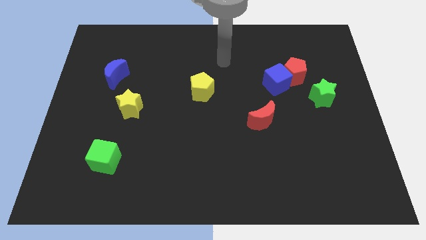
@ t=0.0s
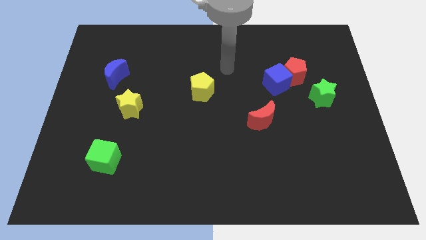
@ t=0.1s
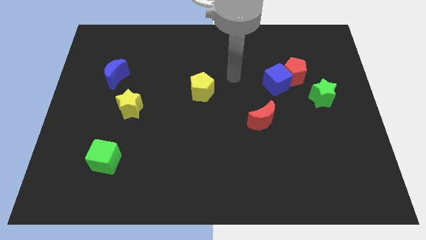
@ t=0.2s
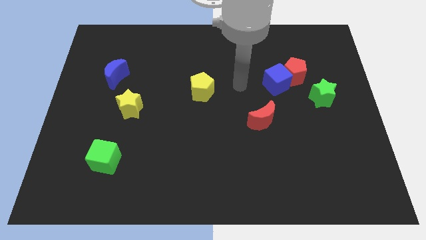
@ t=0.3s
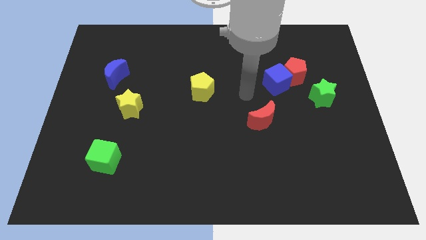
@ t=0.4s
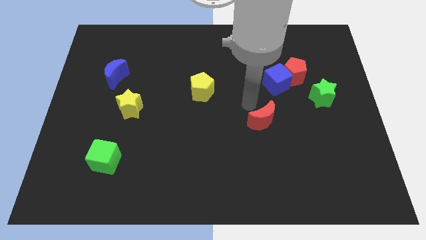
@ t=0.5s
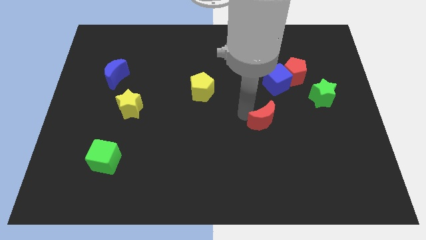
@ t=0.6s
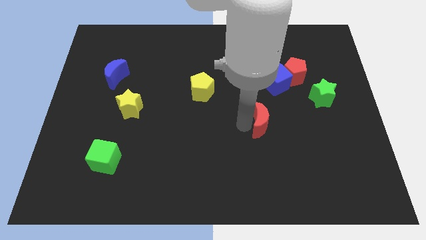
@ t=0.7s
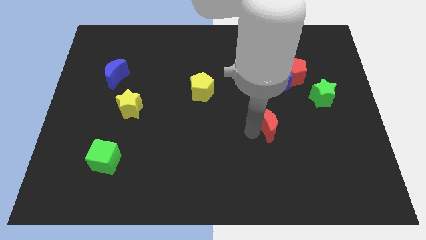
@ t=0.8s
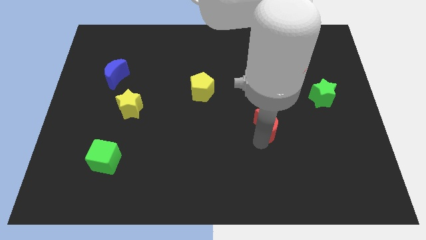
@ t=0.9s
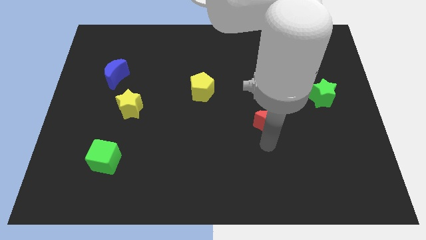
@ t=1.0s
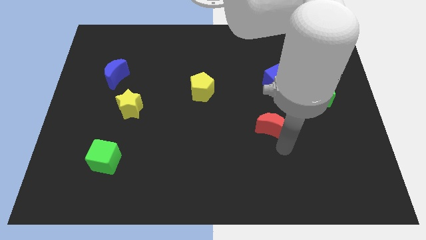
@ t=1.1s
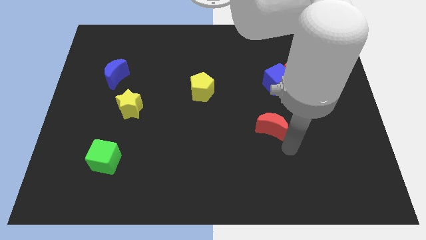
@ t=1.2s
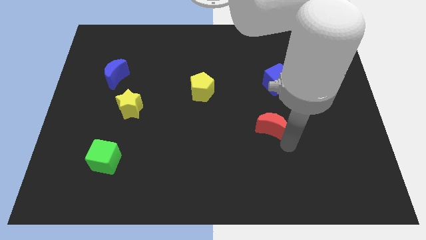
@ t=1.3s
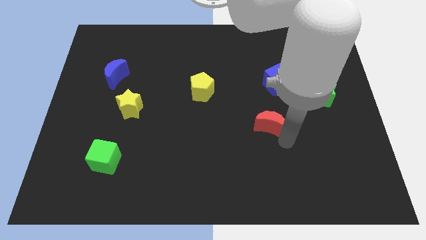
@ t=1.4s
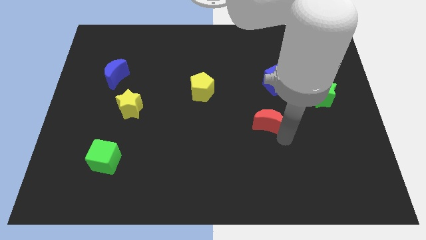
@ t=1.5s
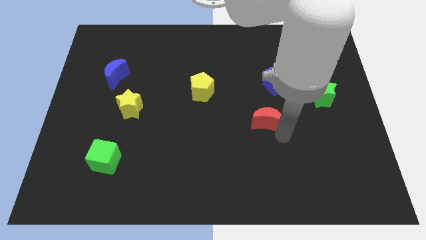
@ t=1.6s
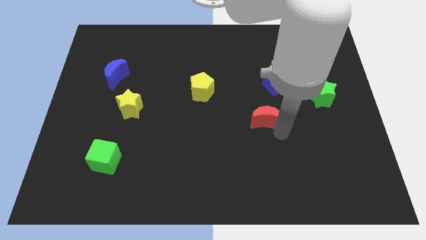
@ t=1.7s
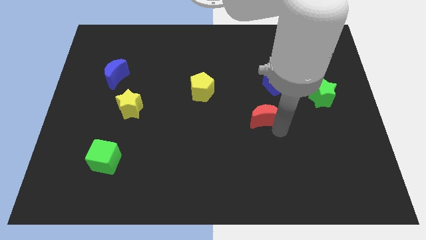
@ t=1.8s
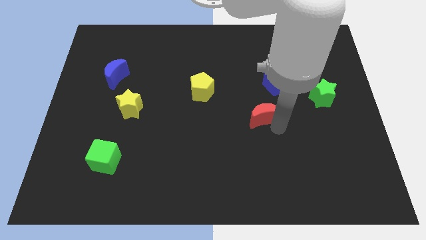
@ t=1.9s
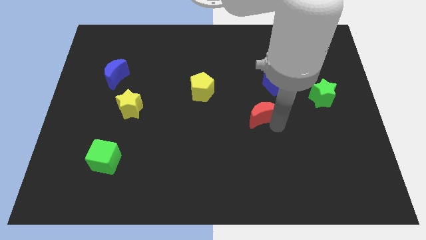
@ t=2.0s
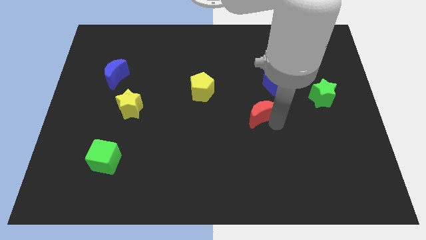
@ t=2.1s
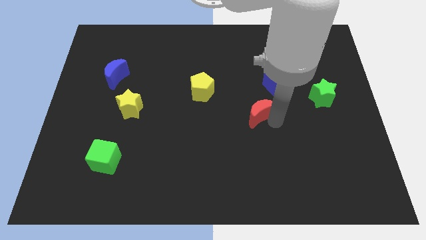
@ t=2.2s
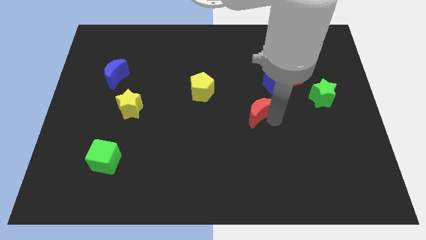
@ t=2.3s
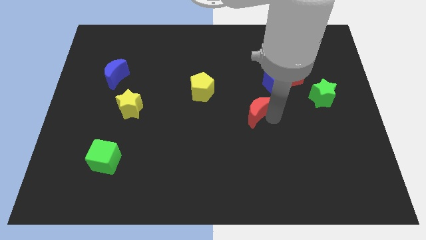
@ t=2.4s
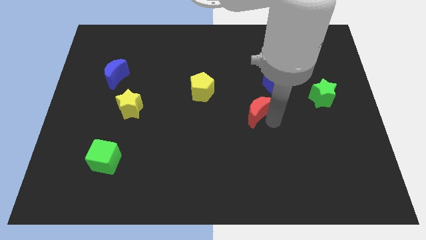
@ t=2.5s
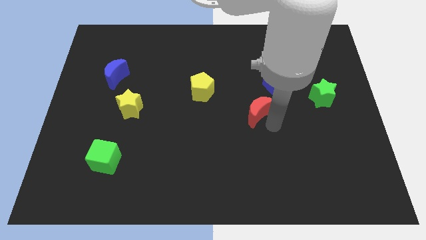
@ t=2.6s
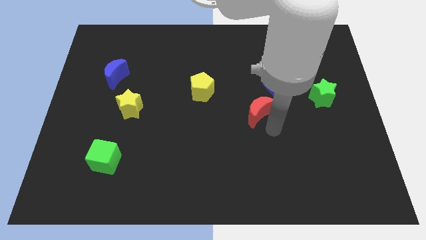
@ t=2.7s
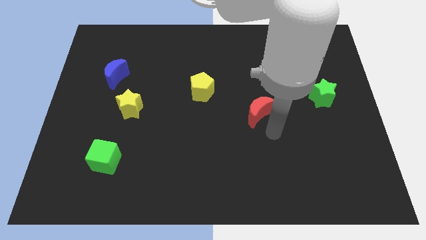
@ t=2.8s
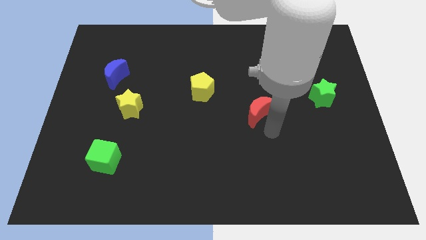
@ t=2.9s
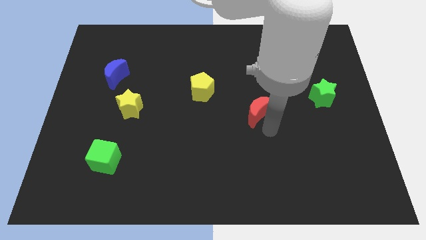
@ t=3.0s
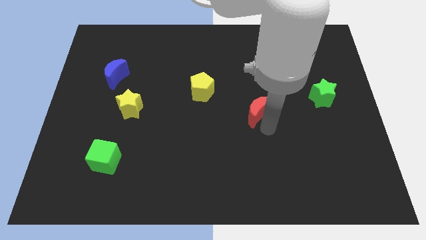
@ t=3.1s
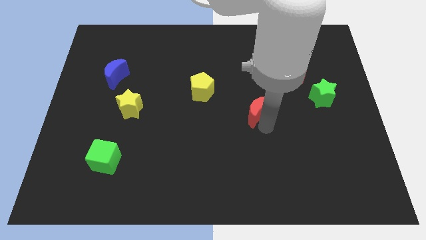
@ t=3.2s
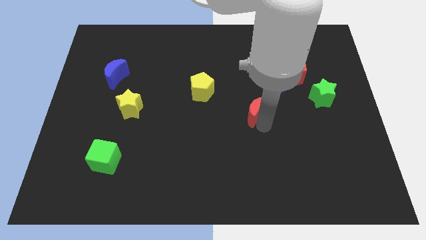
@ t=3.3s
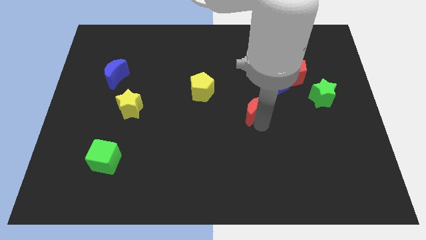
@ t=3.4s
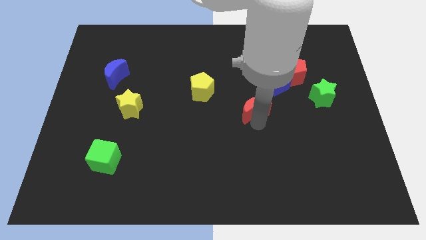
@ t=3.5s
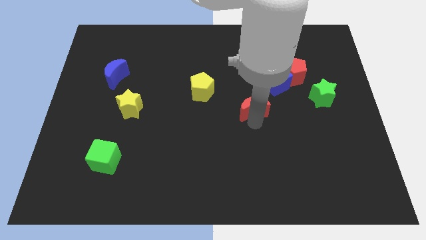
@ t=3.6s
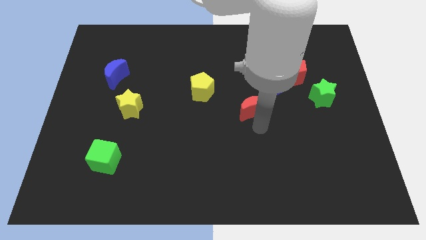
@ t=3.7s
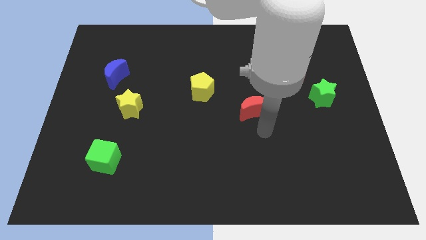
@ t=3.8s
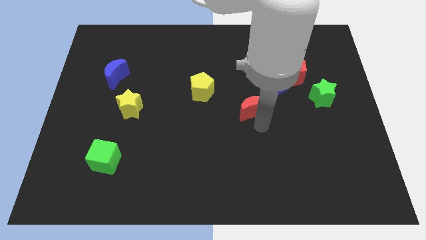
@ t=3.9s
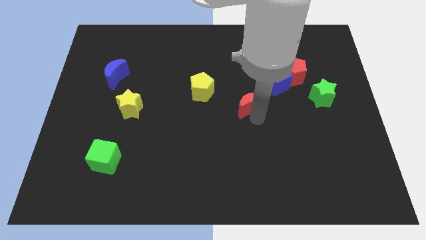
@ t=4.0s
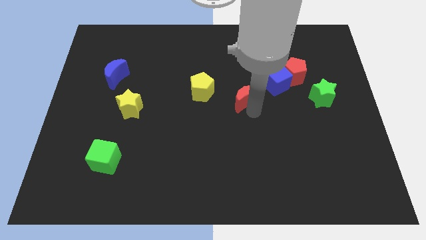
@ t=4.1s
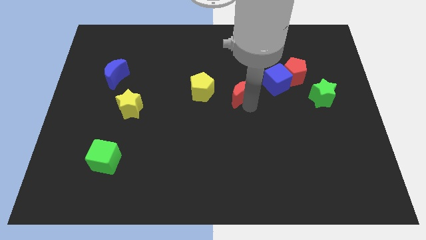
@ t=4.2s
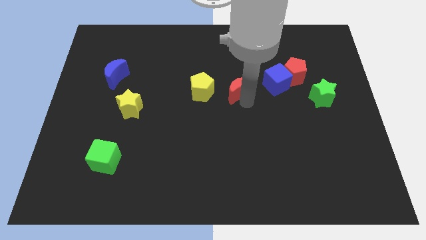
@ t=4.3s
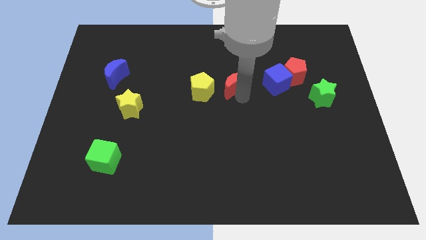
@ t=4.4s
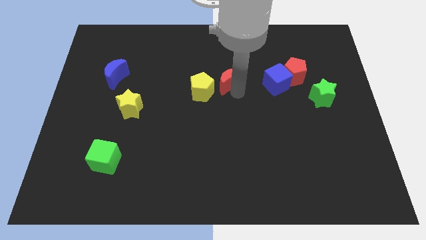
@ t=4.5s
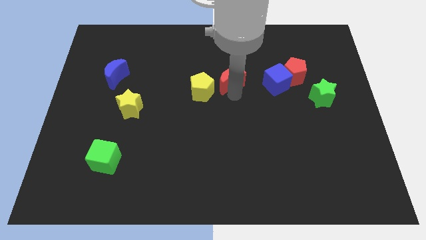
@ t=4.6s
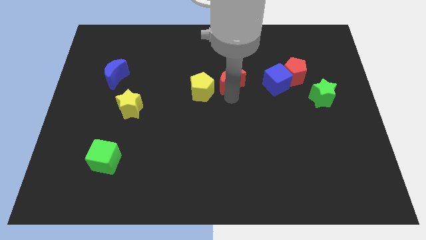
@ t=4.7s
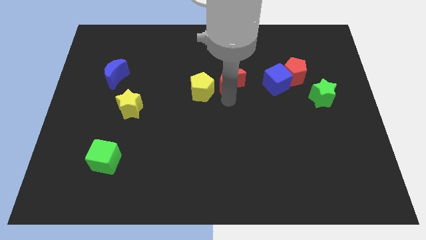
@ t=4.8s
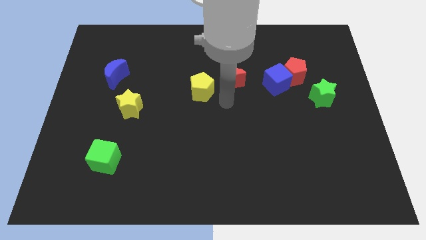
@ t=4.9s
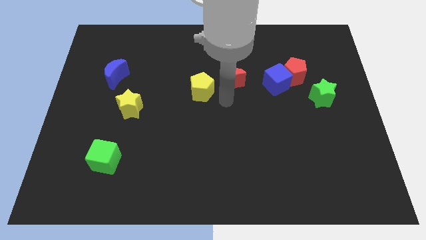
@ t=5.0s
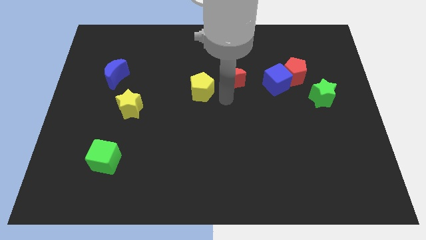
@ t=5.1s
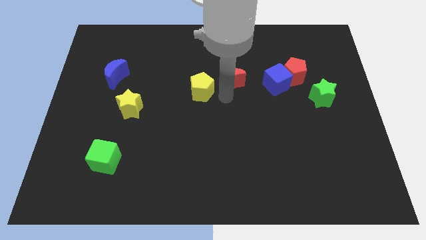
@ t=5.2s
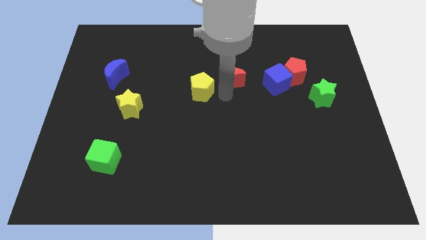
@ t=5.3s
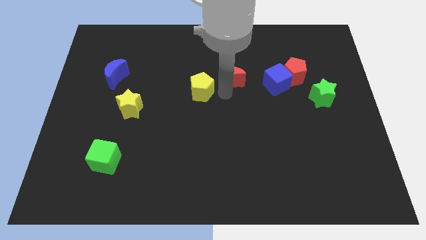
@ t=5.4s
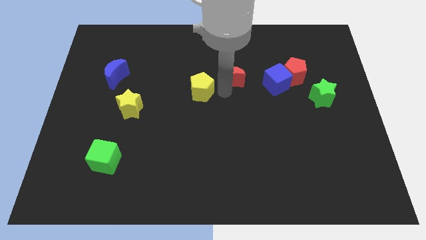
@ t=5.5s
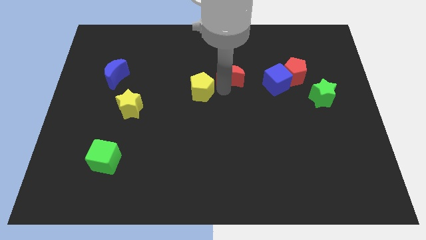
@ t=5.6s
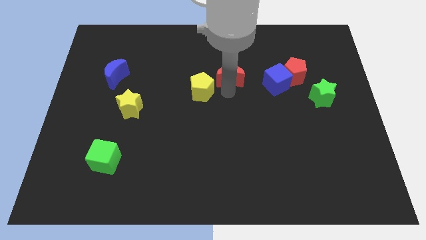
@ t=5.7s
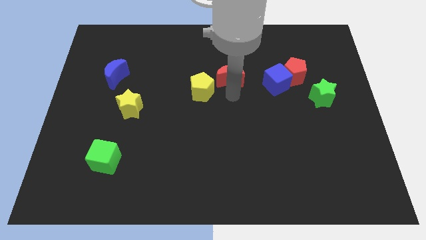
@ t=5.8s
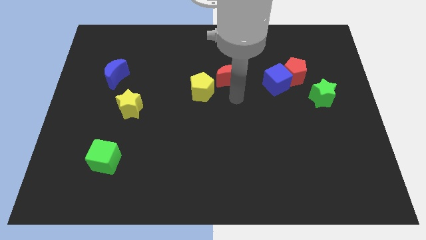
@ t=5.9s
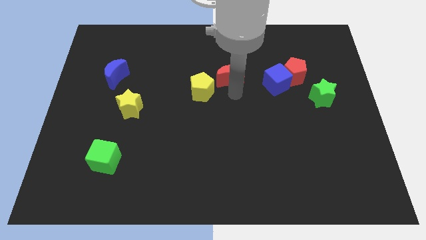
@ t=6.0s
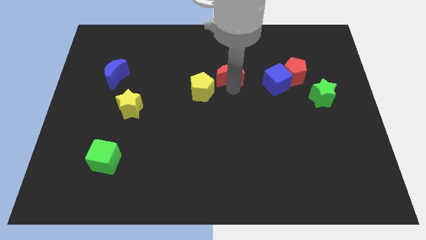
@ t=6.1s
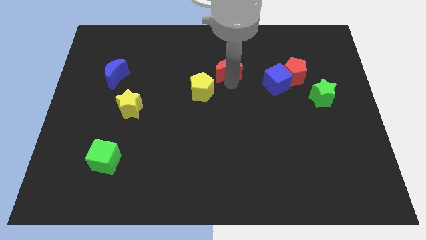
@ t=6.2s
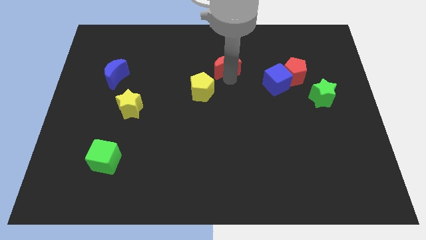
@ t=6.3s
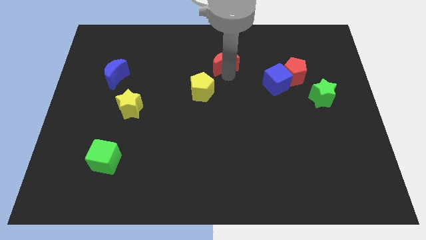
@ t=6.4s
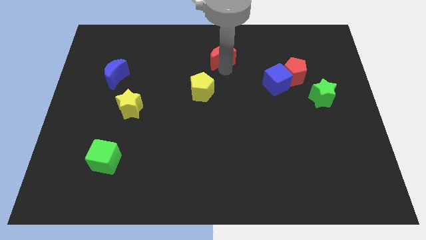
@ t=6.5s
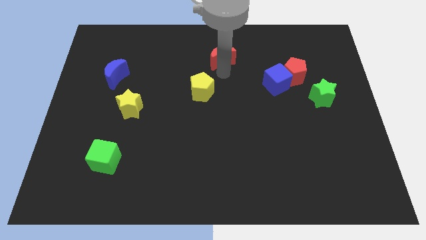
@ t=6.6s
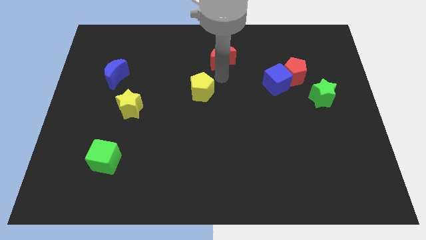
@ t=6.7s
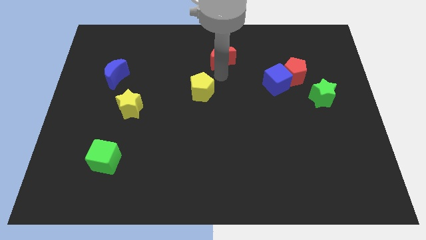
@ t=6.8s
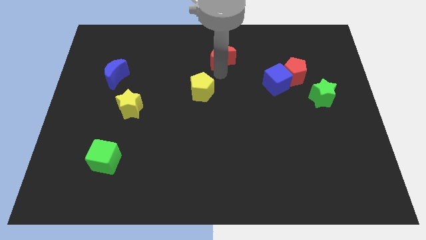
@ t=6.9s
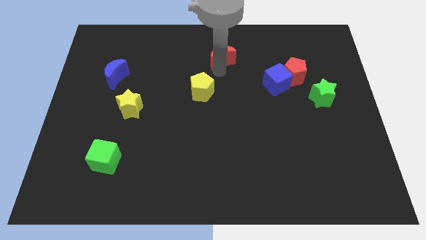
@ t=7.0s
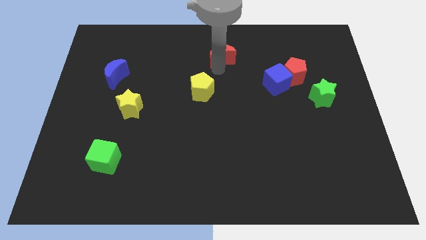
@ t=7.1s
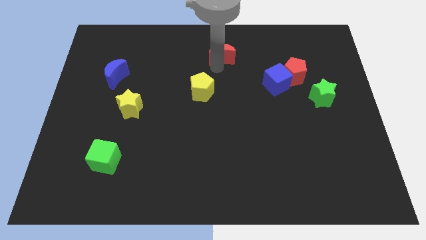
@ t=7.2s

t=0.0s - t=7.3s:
slide the red moon to the towards your base

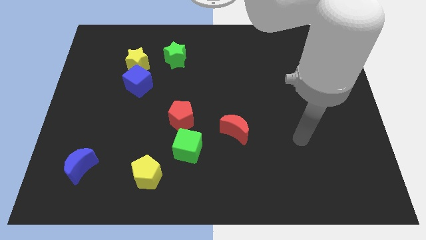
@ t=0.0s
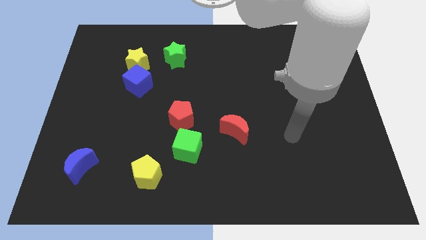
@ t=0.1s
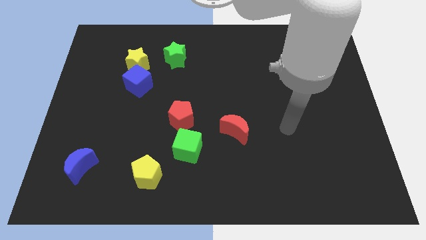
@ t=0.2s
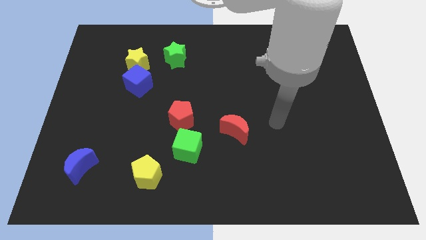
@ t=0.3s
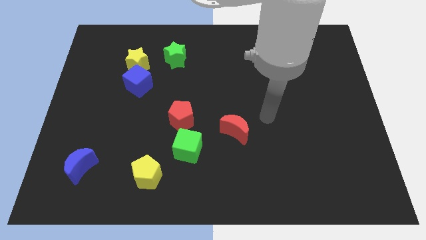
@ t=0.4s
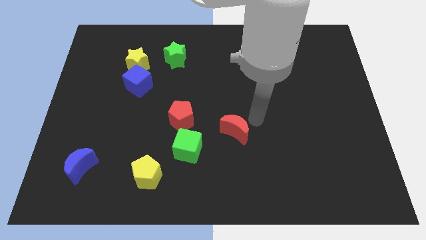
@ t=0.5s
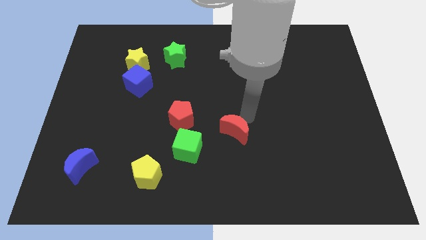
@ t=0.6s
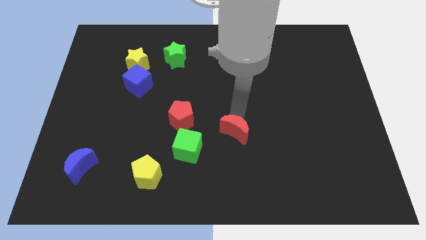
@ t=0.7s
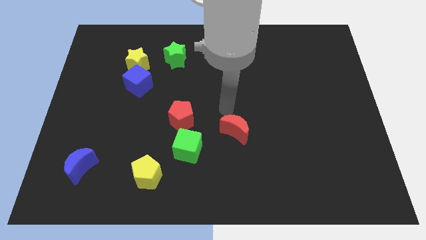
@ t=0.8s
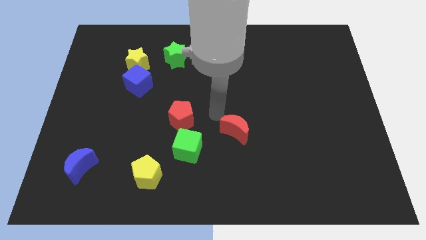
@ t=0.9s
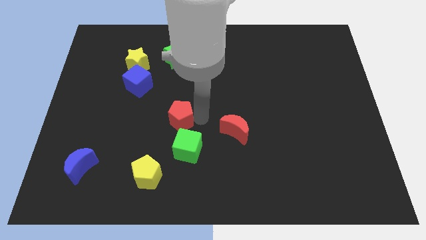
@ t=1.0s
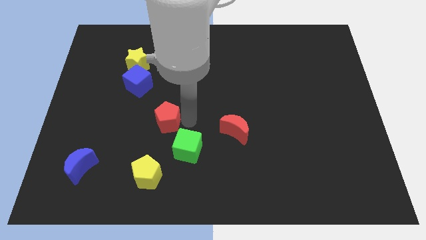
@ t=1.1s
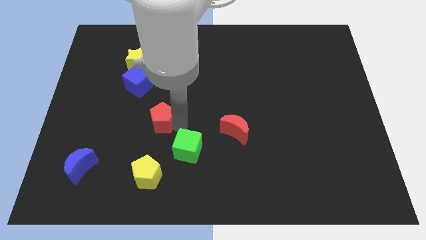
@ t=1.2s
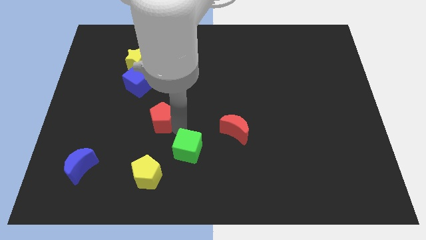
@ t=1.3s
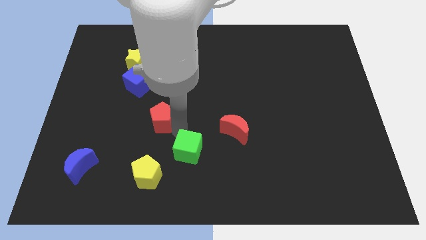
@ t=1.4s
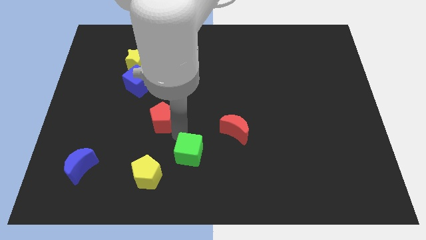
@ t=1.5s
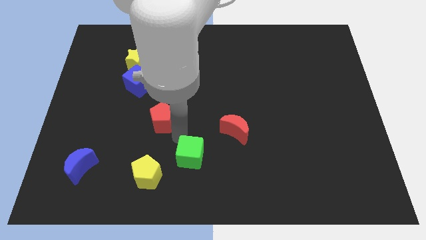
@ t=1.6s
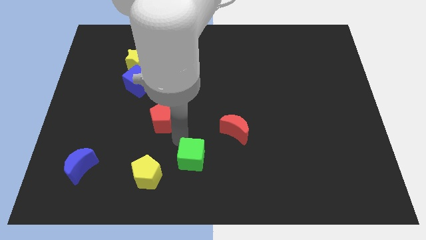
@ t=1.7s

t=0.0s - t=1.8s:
slide the green cube to the bottom
